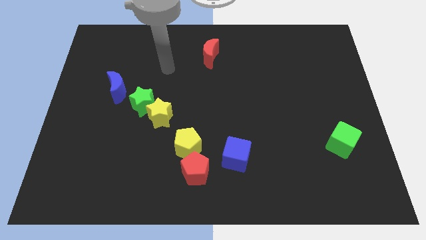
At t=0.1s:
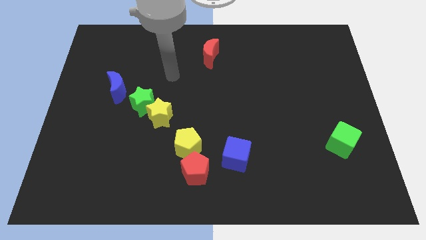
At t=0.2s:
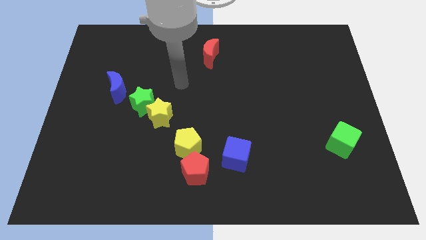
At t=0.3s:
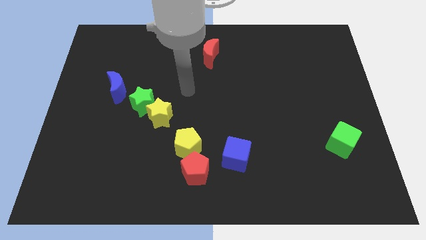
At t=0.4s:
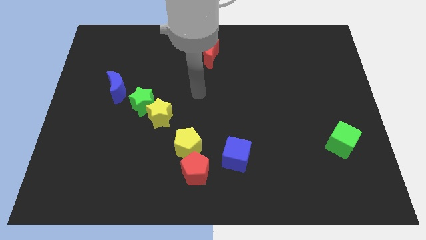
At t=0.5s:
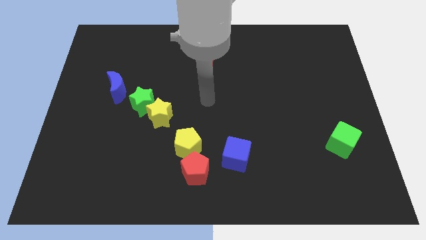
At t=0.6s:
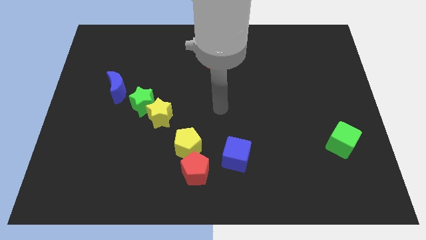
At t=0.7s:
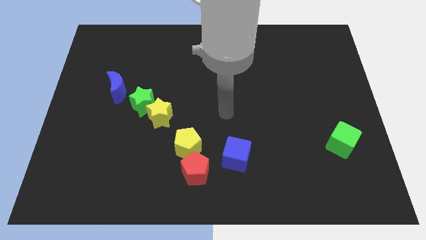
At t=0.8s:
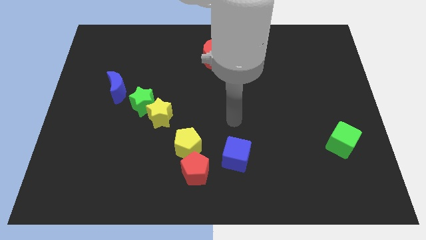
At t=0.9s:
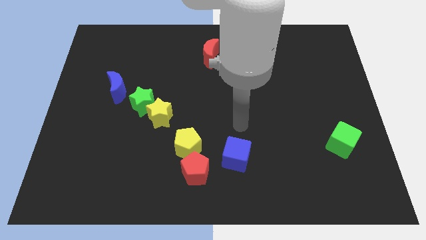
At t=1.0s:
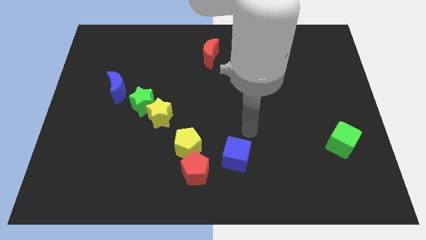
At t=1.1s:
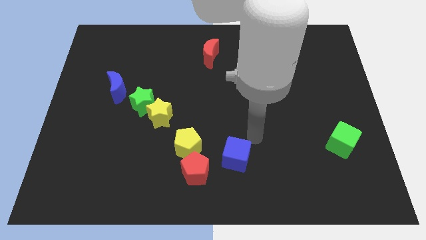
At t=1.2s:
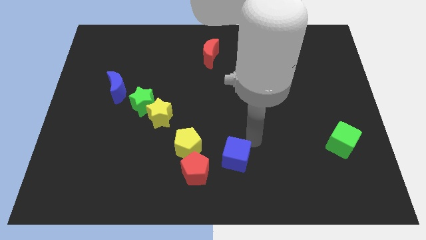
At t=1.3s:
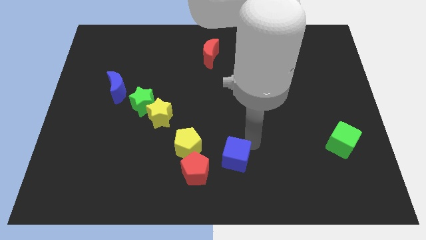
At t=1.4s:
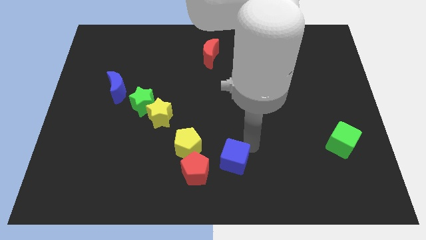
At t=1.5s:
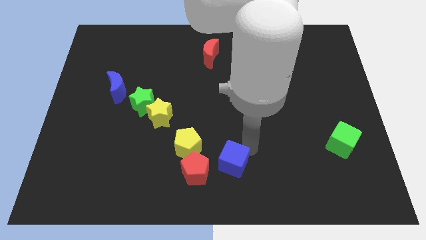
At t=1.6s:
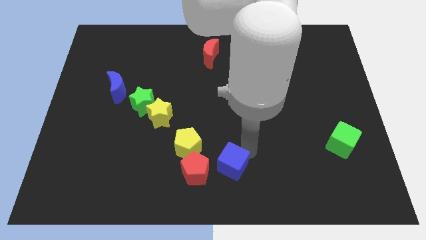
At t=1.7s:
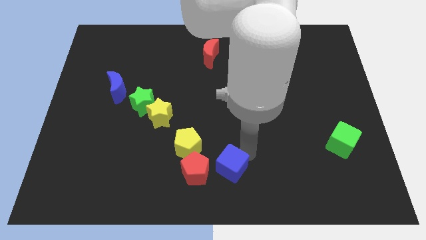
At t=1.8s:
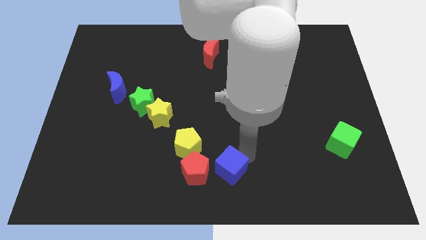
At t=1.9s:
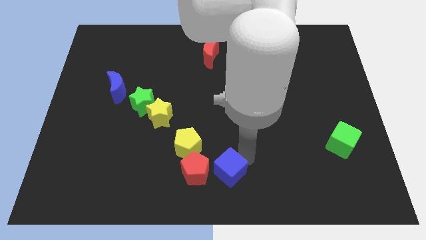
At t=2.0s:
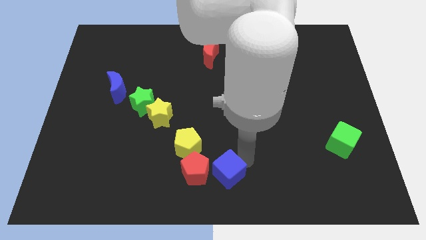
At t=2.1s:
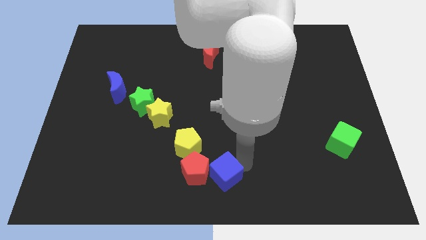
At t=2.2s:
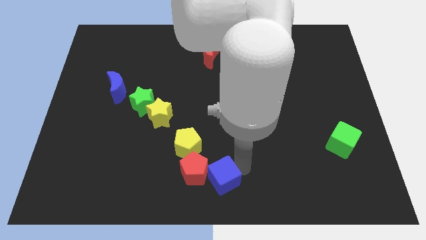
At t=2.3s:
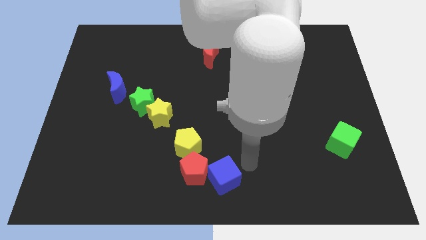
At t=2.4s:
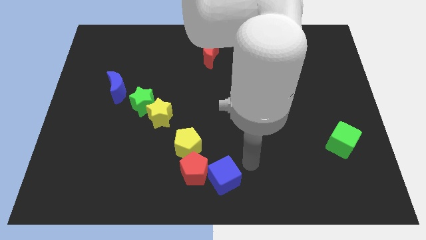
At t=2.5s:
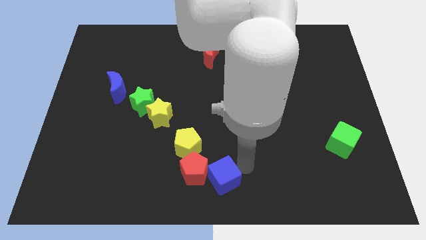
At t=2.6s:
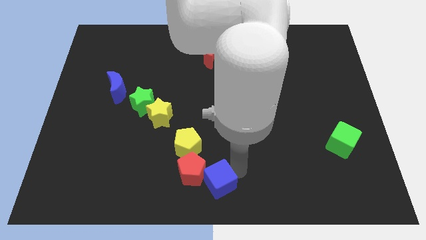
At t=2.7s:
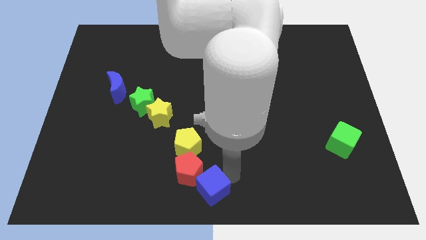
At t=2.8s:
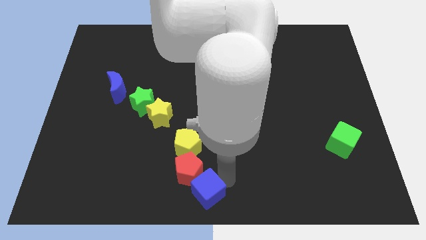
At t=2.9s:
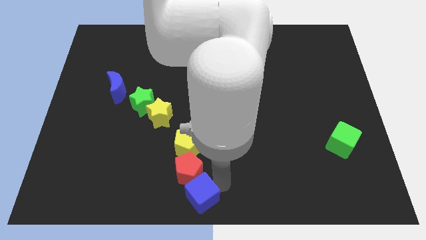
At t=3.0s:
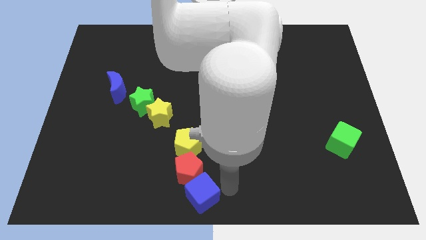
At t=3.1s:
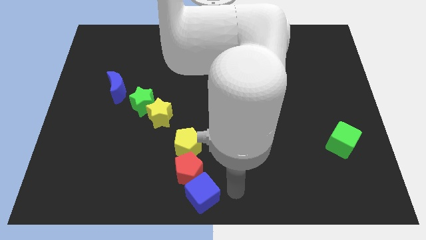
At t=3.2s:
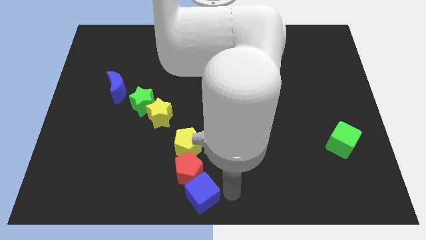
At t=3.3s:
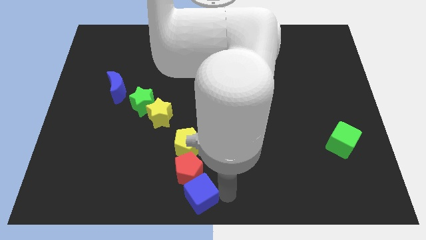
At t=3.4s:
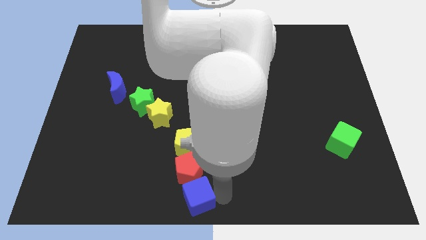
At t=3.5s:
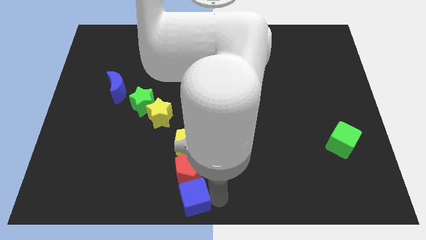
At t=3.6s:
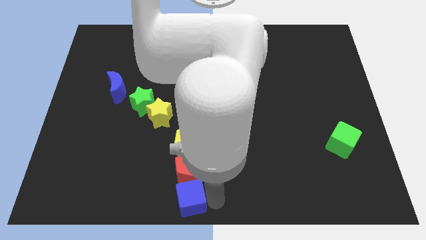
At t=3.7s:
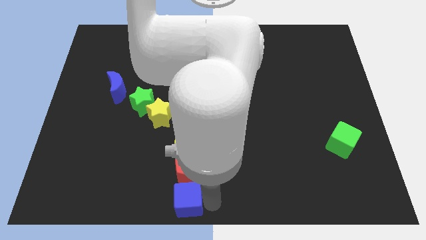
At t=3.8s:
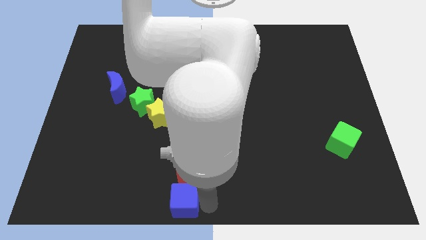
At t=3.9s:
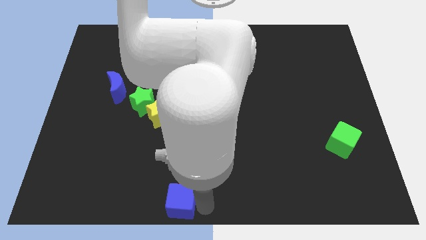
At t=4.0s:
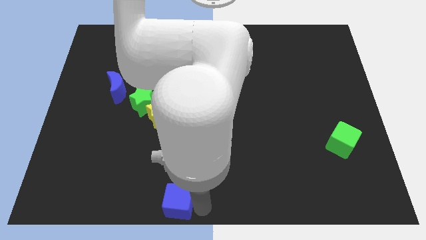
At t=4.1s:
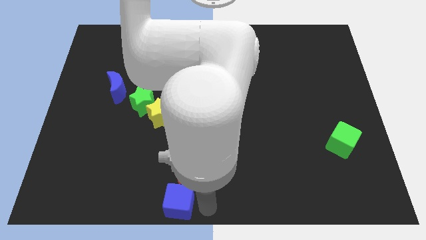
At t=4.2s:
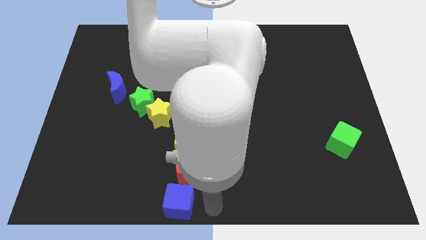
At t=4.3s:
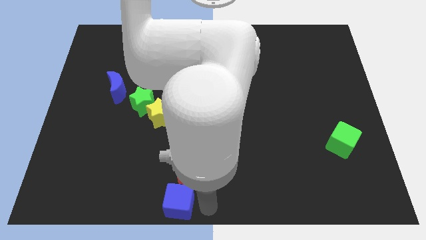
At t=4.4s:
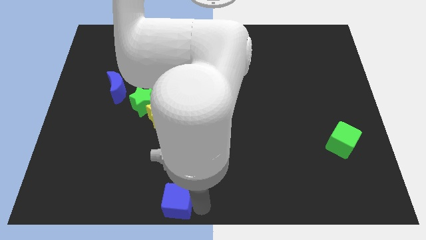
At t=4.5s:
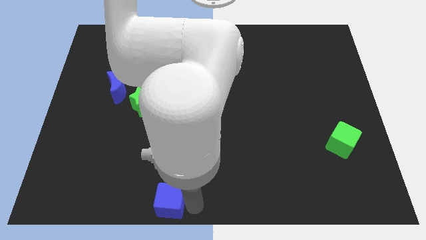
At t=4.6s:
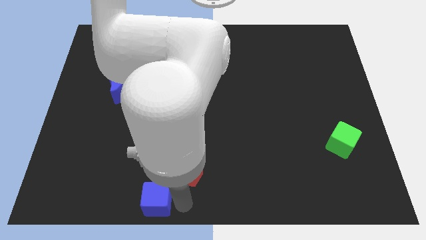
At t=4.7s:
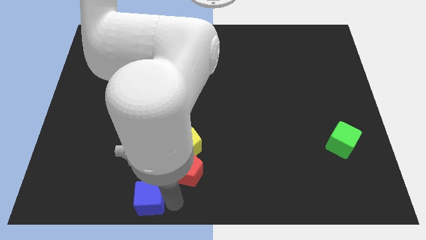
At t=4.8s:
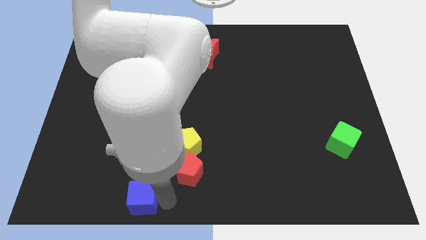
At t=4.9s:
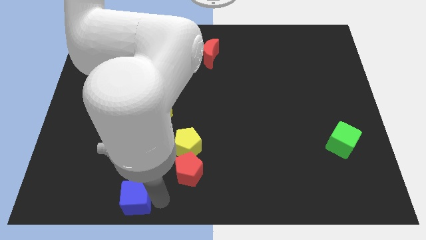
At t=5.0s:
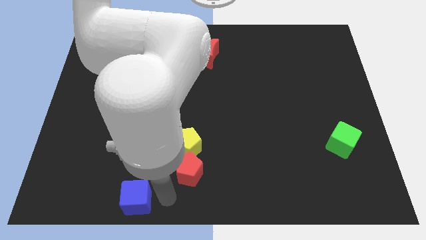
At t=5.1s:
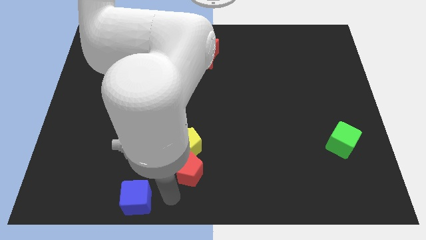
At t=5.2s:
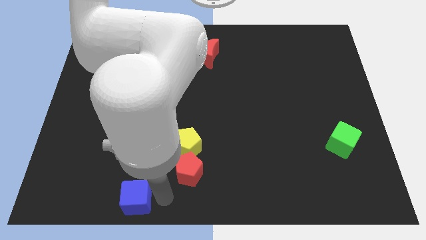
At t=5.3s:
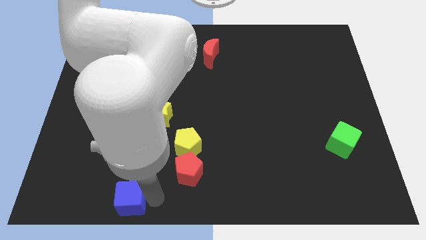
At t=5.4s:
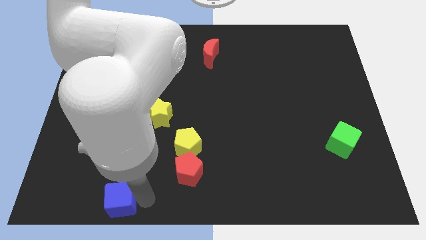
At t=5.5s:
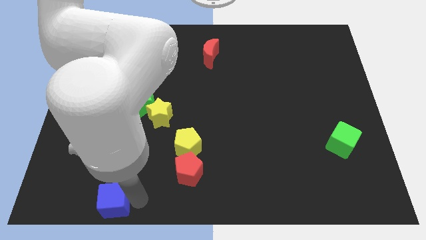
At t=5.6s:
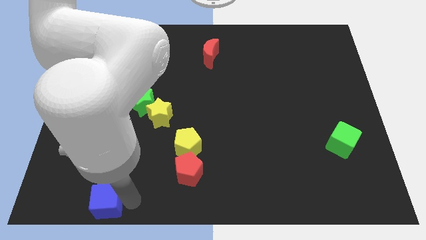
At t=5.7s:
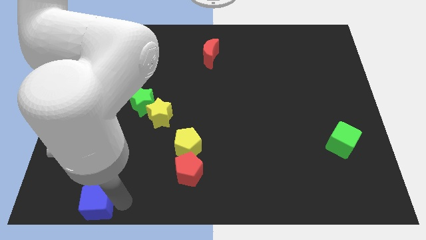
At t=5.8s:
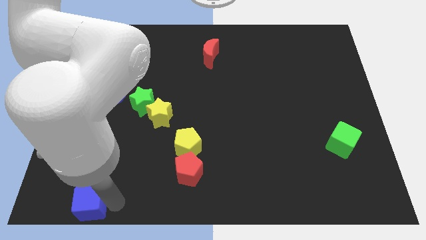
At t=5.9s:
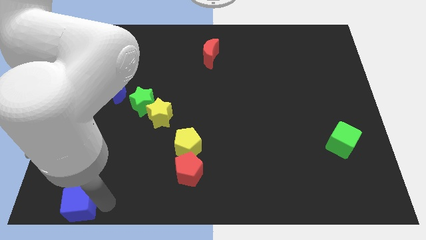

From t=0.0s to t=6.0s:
push the blue cube to the lower left corner

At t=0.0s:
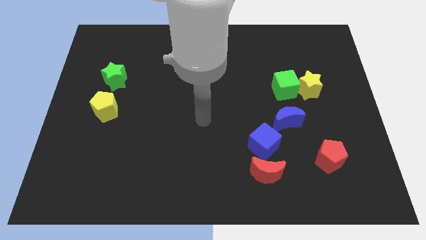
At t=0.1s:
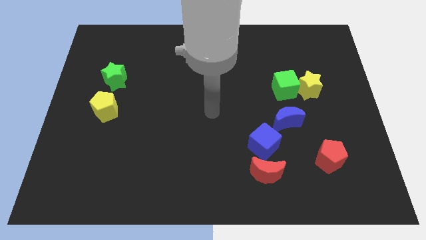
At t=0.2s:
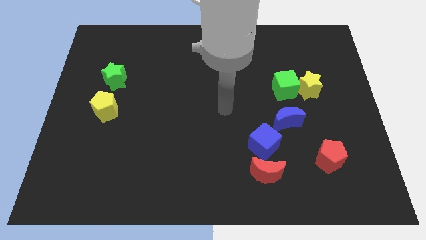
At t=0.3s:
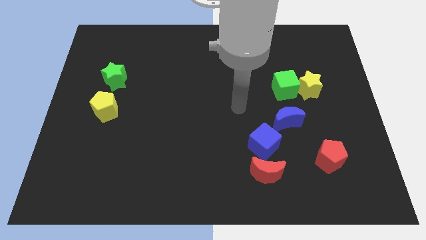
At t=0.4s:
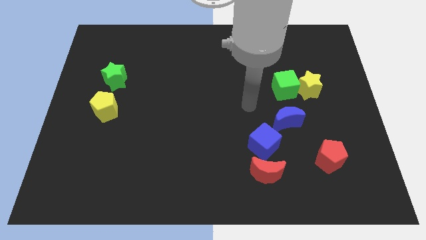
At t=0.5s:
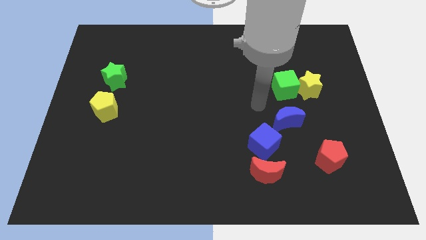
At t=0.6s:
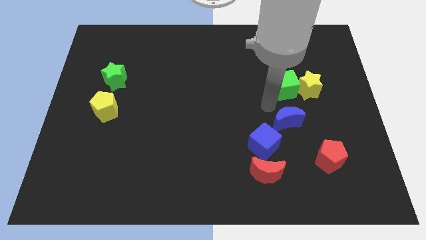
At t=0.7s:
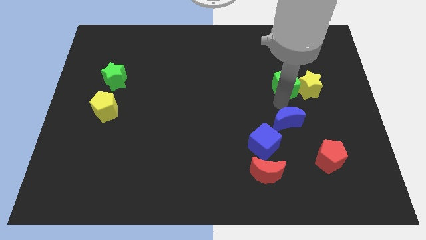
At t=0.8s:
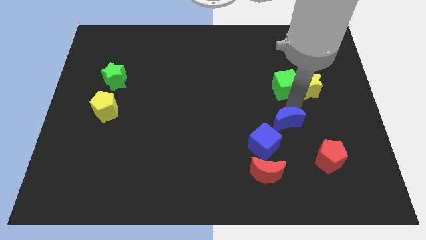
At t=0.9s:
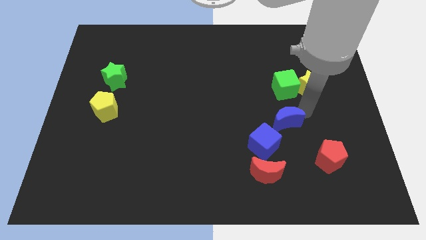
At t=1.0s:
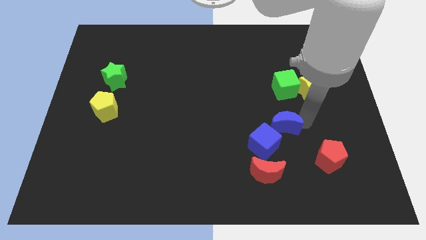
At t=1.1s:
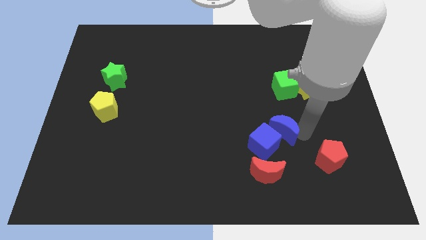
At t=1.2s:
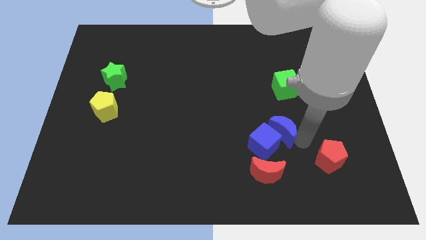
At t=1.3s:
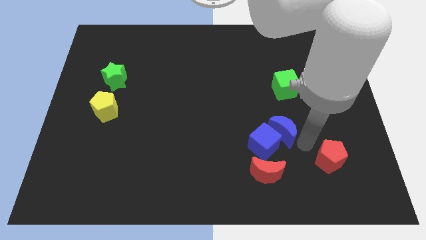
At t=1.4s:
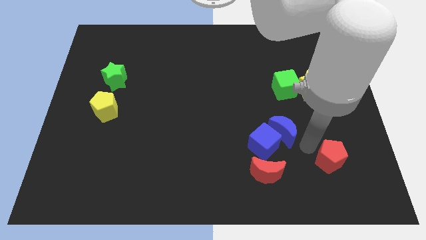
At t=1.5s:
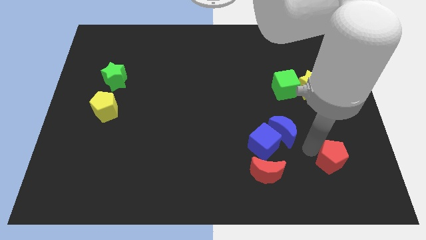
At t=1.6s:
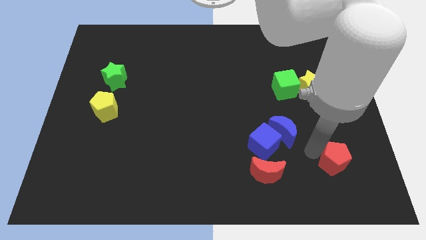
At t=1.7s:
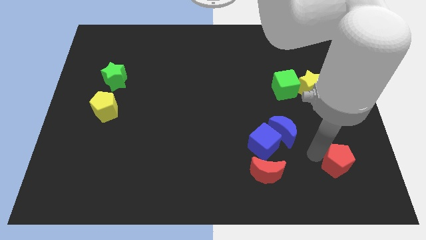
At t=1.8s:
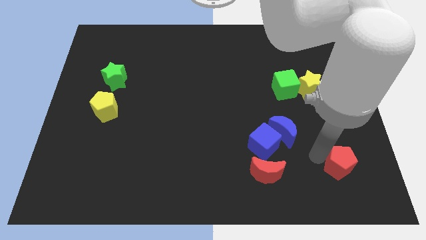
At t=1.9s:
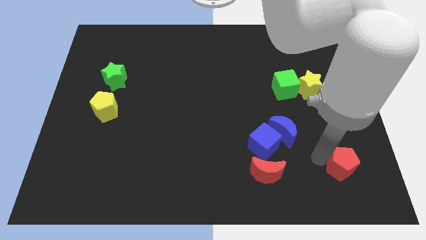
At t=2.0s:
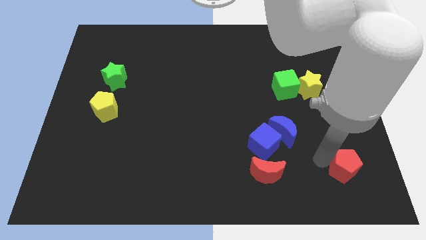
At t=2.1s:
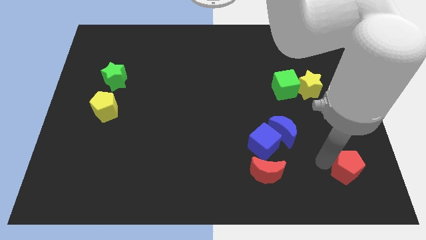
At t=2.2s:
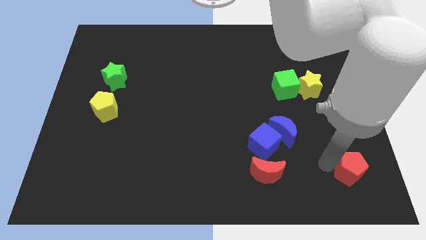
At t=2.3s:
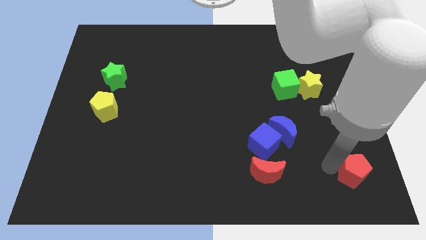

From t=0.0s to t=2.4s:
slide the red pentagon to the lower right corner
